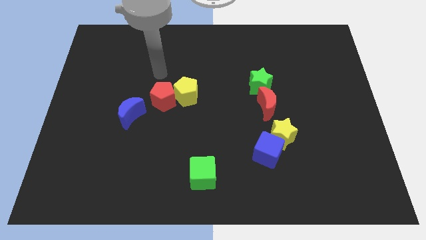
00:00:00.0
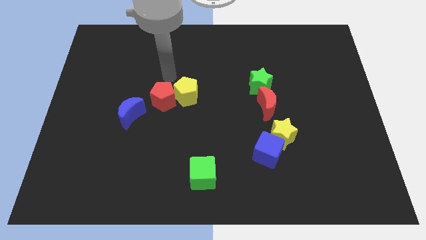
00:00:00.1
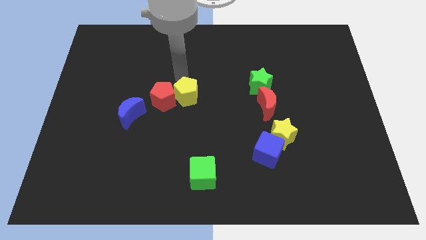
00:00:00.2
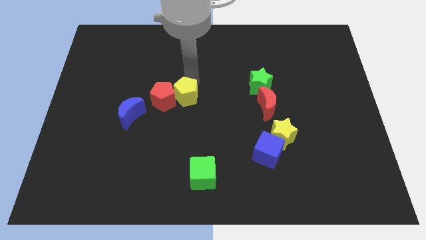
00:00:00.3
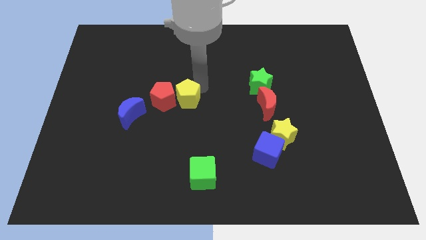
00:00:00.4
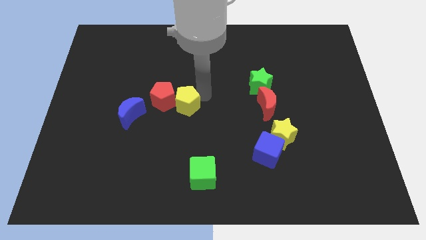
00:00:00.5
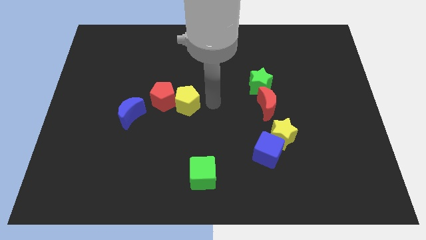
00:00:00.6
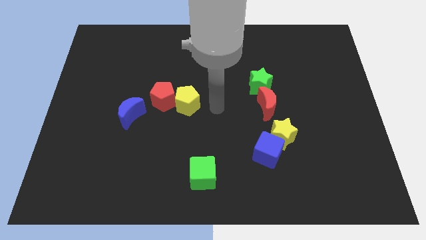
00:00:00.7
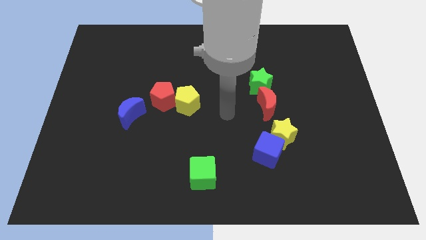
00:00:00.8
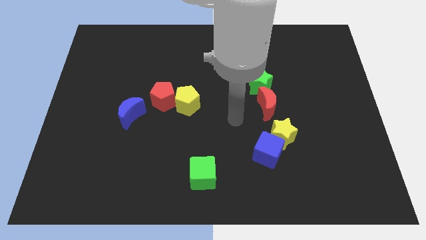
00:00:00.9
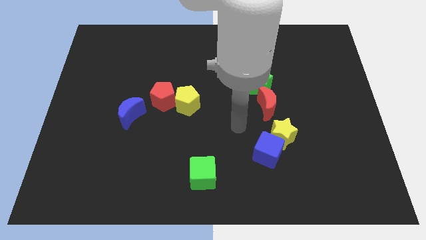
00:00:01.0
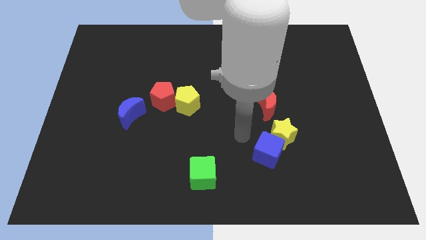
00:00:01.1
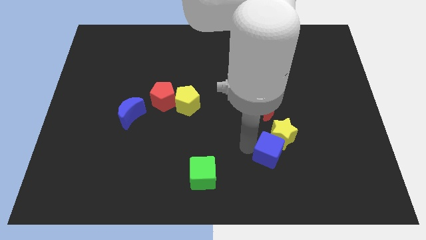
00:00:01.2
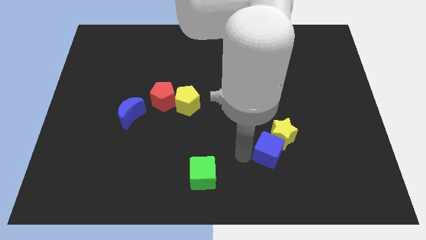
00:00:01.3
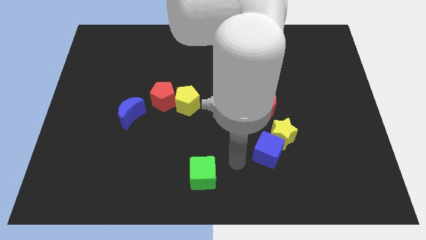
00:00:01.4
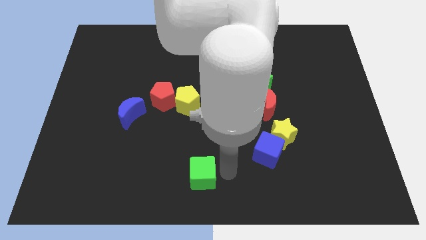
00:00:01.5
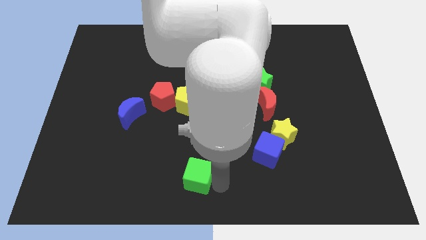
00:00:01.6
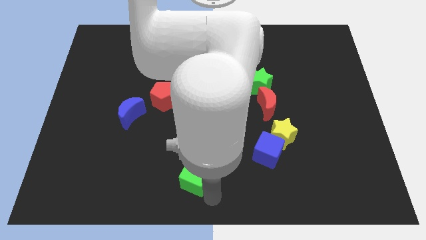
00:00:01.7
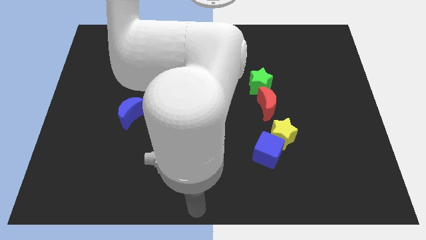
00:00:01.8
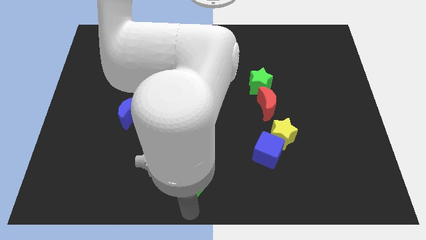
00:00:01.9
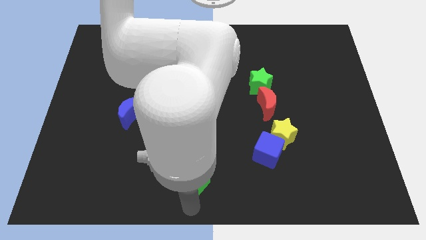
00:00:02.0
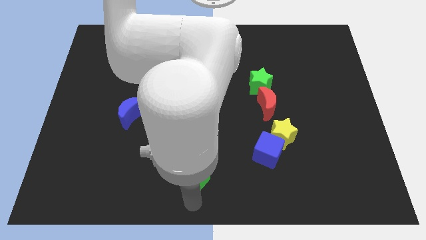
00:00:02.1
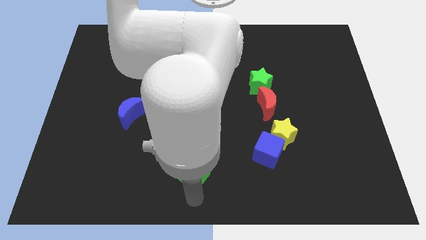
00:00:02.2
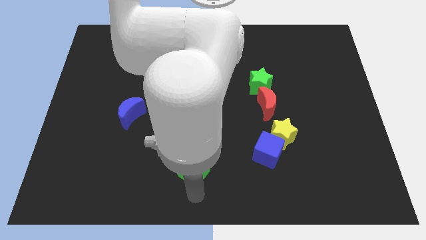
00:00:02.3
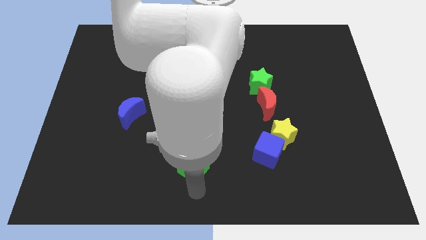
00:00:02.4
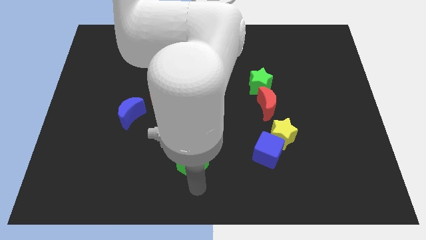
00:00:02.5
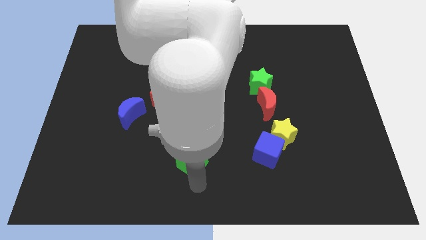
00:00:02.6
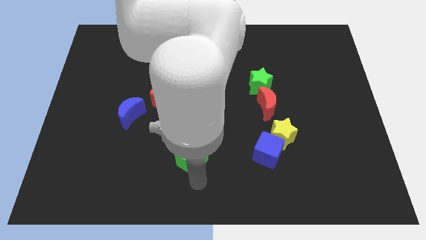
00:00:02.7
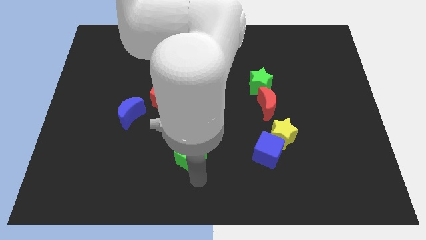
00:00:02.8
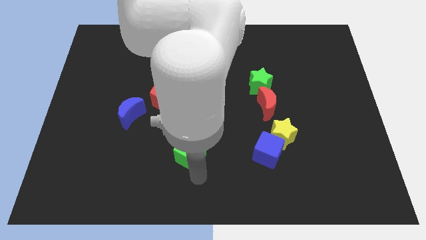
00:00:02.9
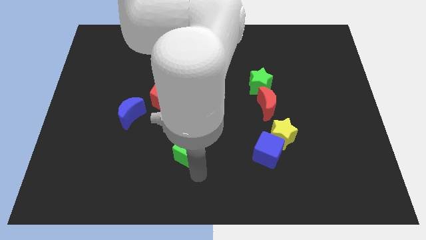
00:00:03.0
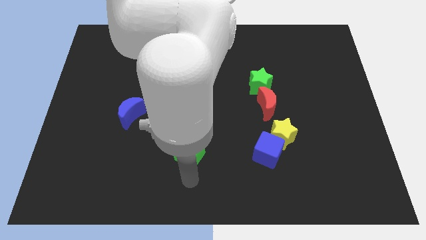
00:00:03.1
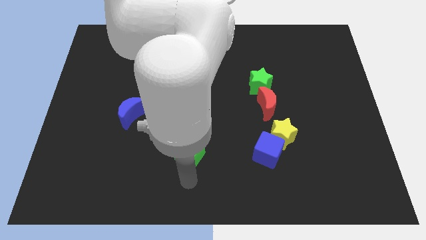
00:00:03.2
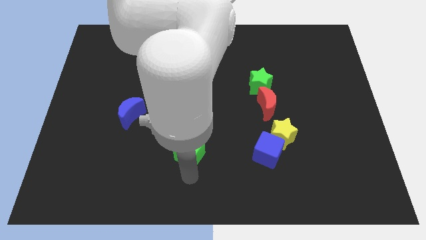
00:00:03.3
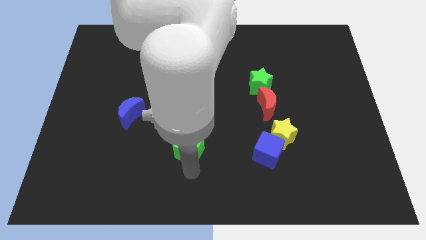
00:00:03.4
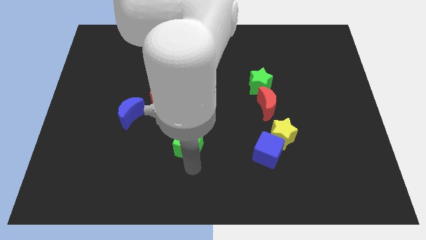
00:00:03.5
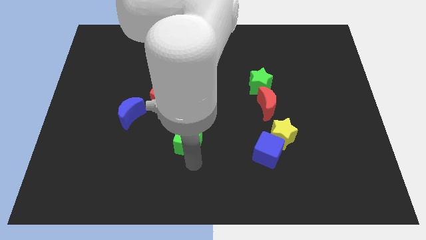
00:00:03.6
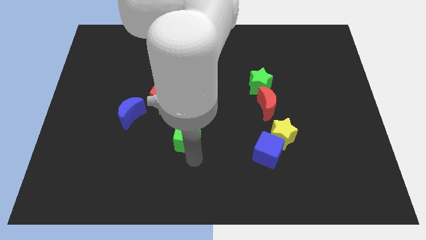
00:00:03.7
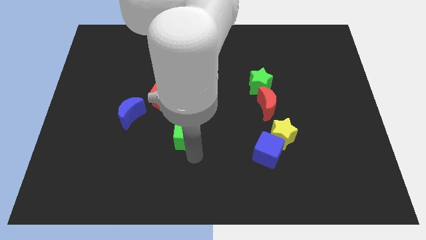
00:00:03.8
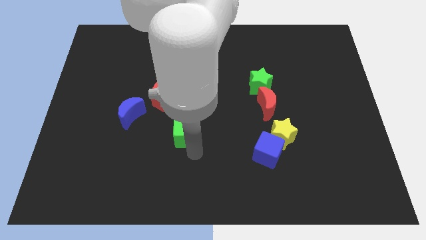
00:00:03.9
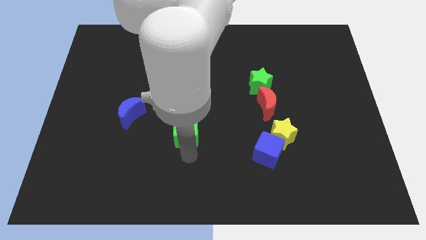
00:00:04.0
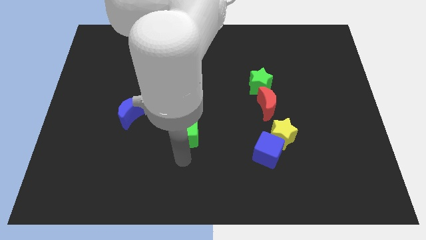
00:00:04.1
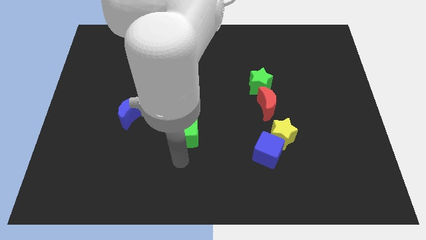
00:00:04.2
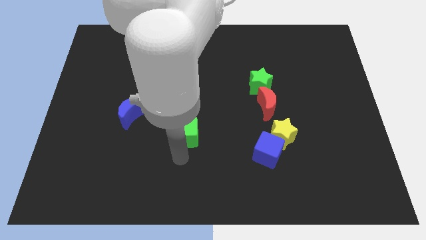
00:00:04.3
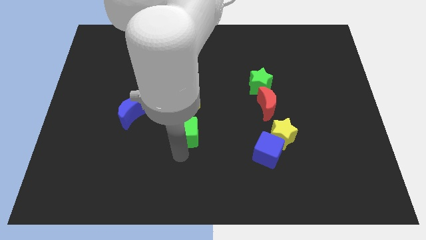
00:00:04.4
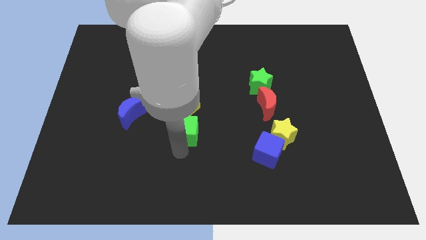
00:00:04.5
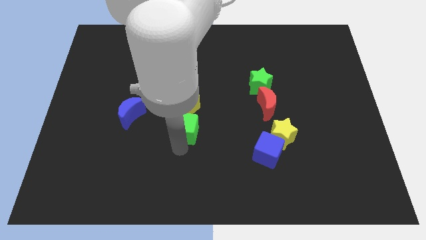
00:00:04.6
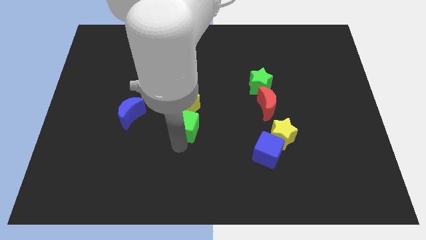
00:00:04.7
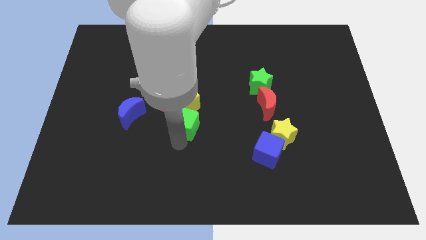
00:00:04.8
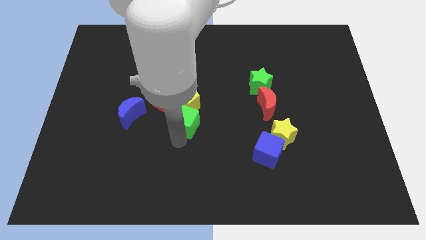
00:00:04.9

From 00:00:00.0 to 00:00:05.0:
slide the green cube towards the yellow pentagon

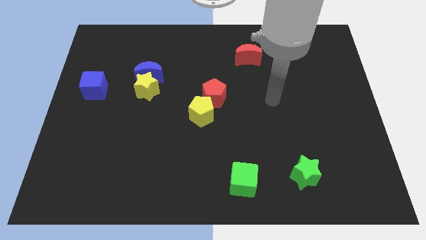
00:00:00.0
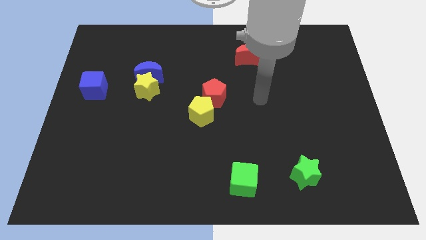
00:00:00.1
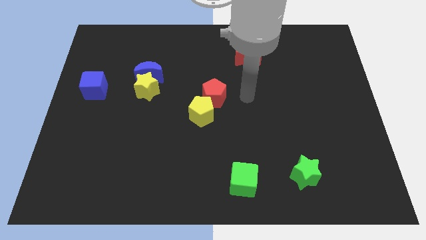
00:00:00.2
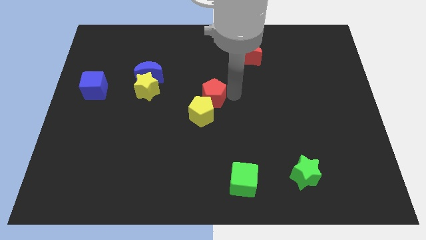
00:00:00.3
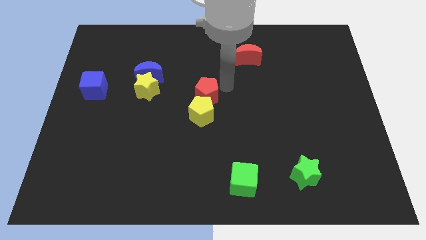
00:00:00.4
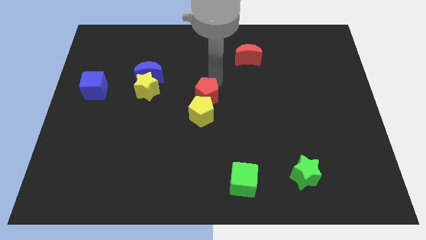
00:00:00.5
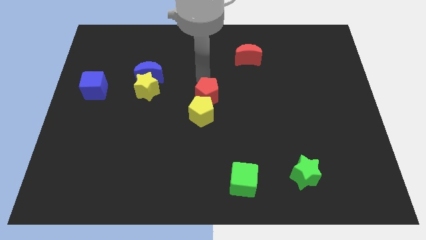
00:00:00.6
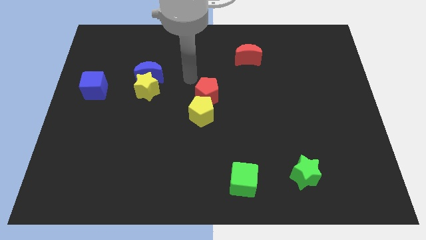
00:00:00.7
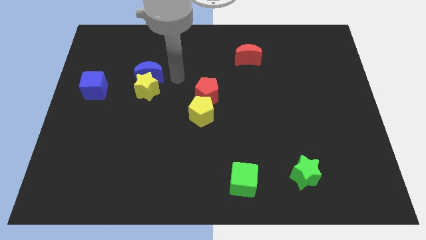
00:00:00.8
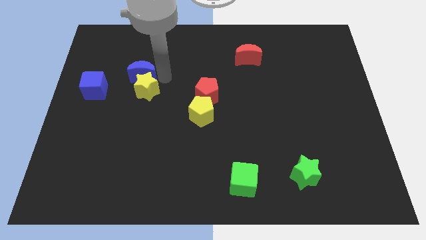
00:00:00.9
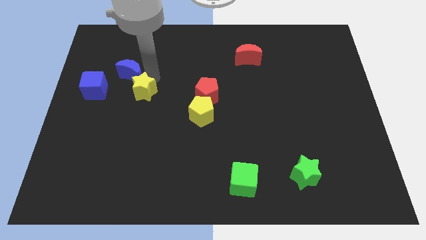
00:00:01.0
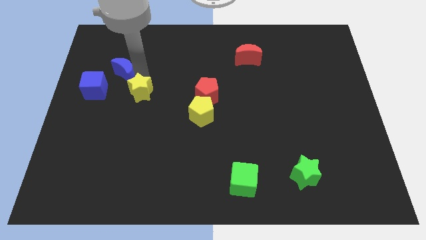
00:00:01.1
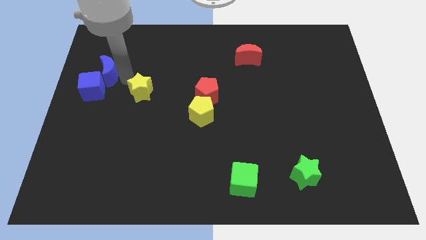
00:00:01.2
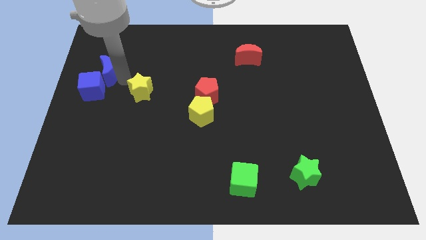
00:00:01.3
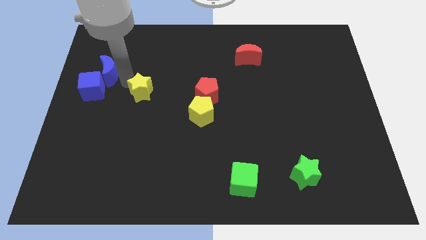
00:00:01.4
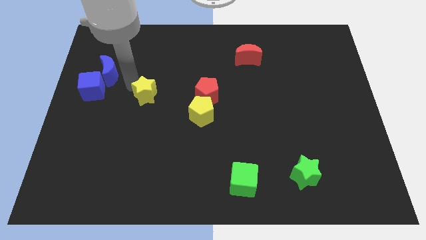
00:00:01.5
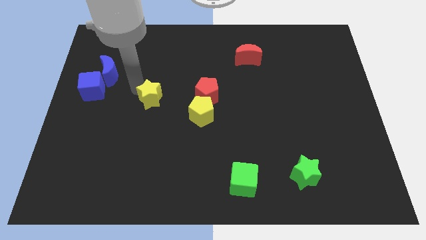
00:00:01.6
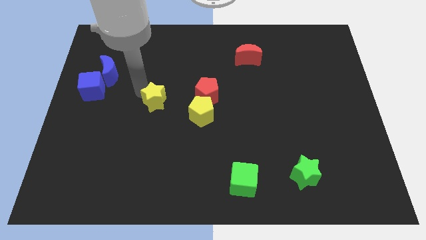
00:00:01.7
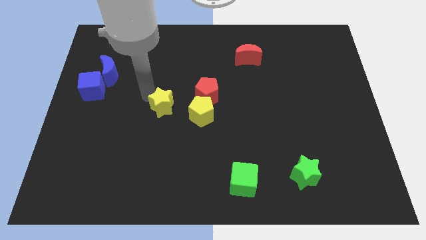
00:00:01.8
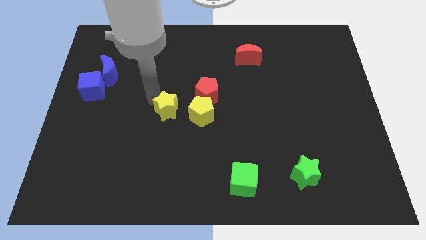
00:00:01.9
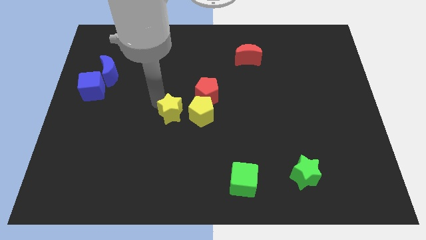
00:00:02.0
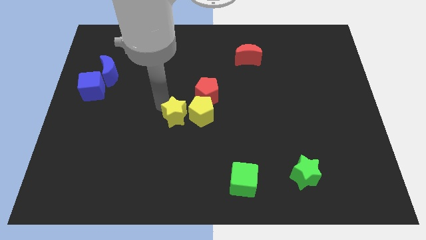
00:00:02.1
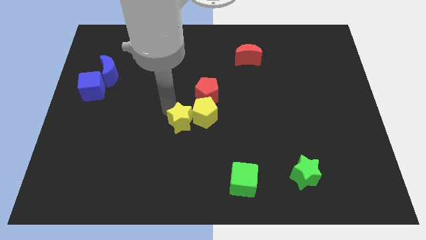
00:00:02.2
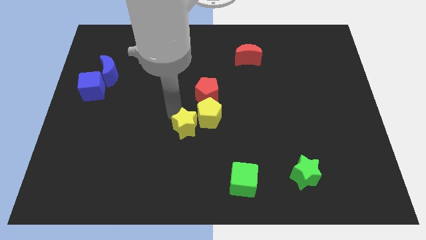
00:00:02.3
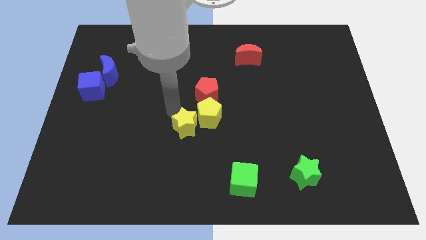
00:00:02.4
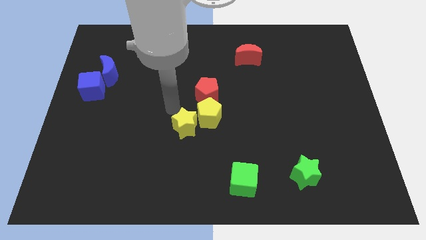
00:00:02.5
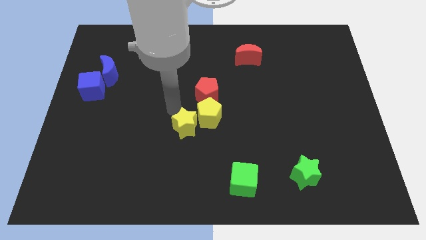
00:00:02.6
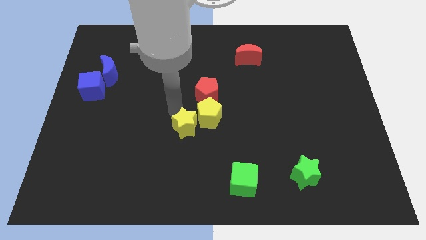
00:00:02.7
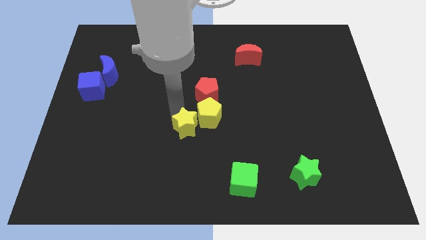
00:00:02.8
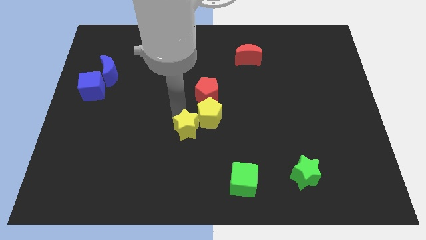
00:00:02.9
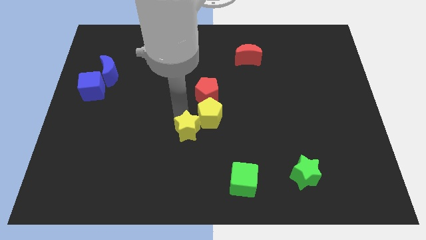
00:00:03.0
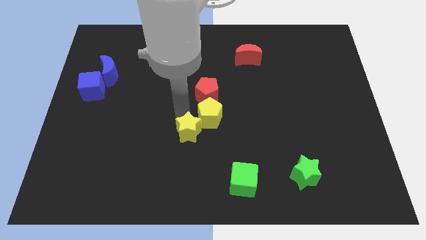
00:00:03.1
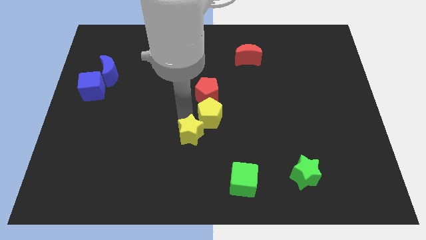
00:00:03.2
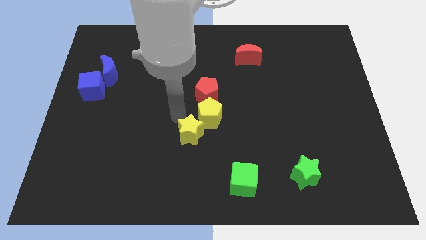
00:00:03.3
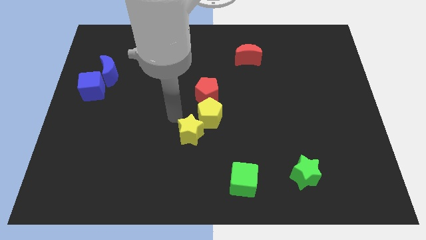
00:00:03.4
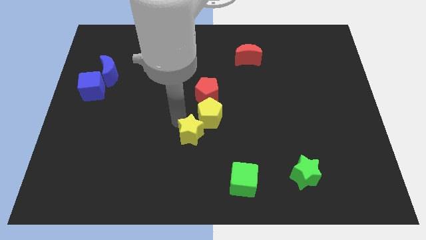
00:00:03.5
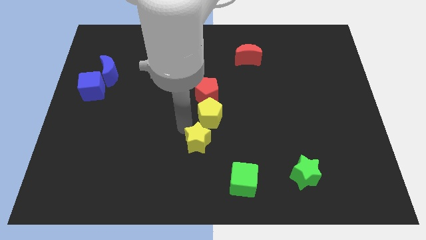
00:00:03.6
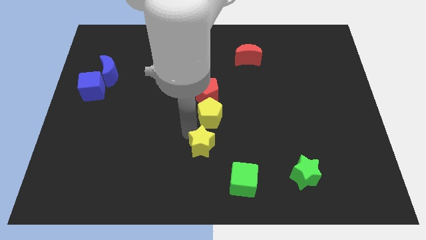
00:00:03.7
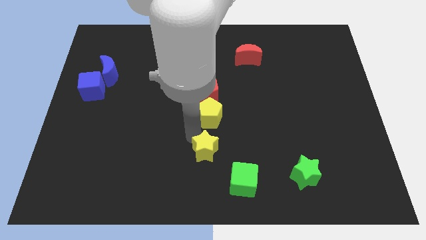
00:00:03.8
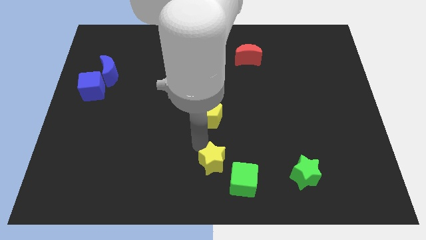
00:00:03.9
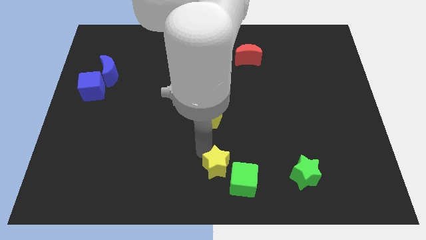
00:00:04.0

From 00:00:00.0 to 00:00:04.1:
move the yellow star towards the green cube
